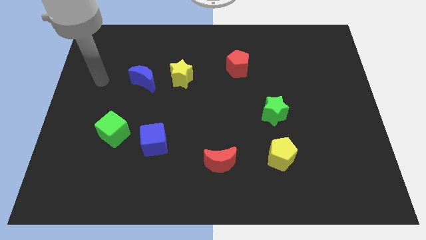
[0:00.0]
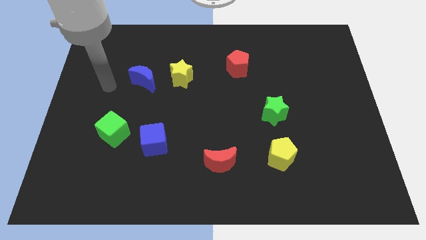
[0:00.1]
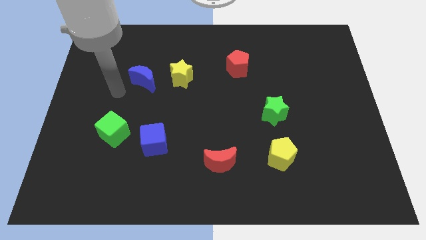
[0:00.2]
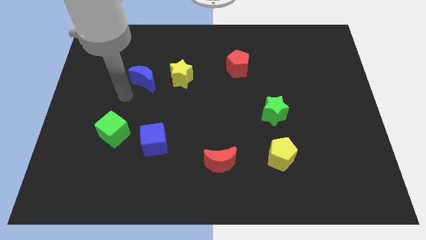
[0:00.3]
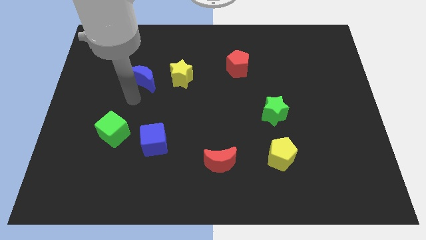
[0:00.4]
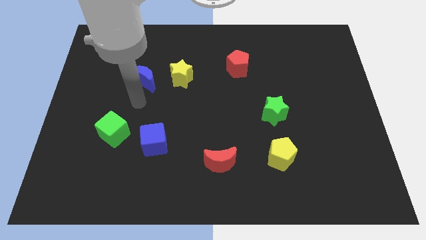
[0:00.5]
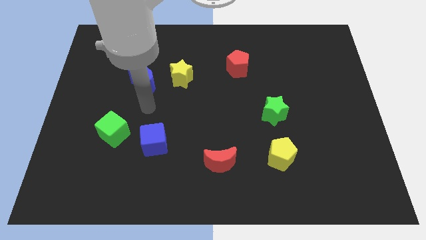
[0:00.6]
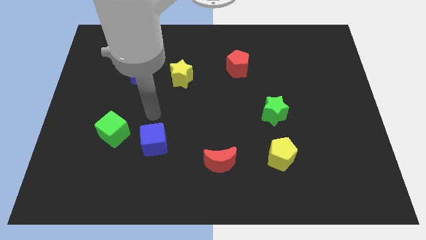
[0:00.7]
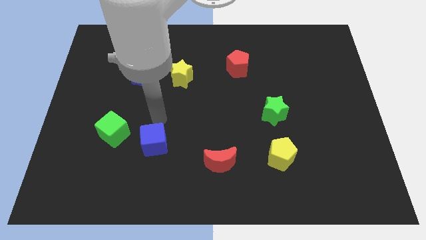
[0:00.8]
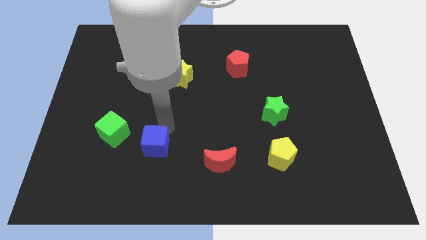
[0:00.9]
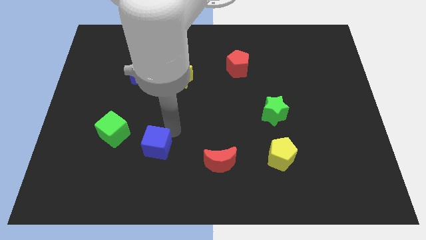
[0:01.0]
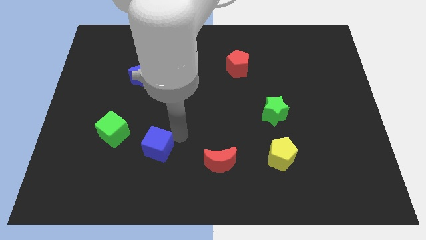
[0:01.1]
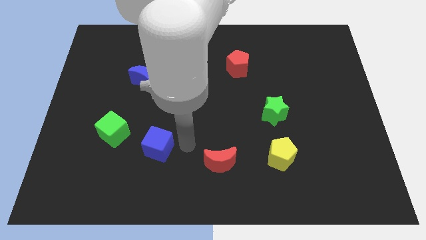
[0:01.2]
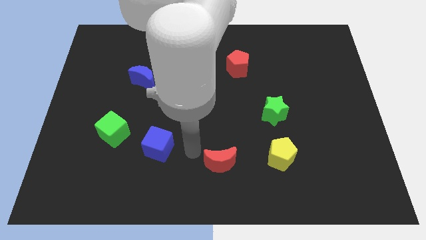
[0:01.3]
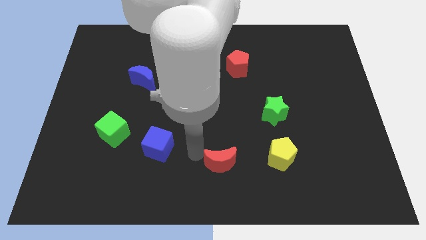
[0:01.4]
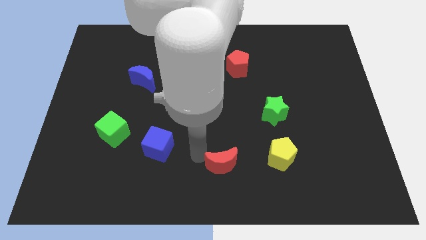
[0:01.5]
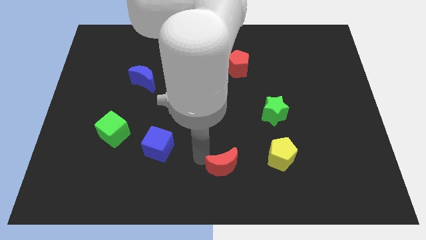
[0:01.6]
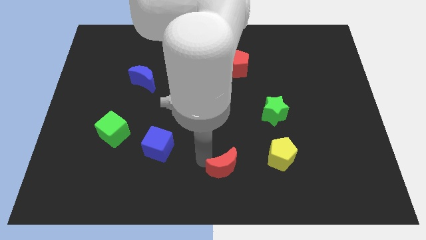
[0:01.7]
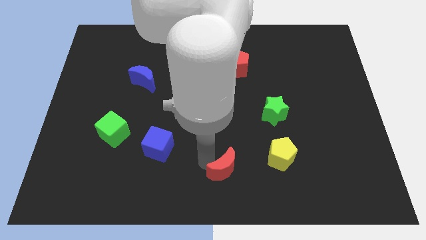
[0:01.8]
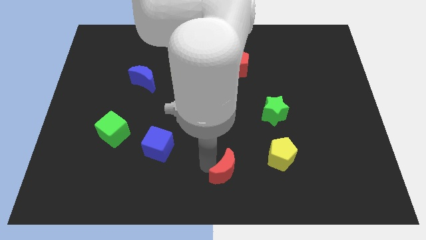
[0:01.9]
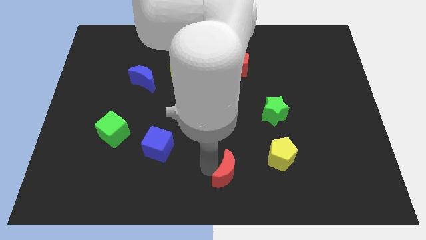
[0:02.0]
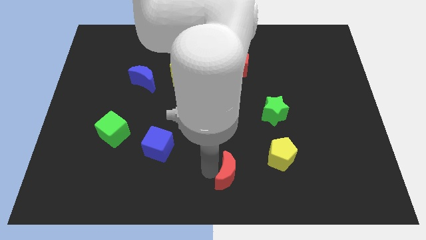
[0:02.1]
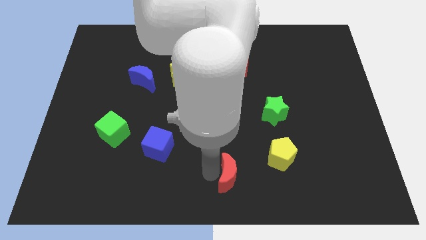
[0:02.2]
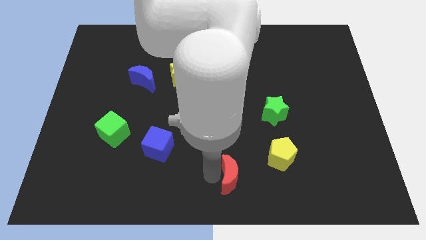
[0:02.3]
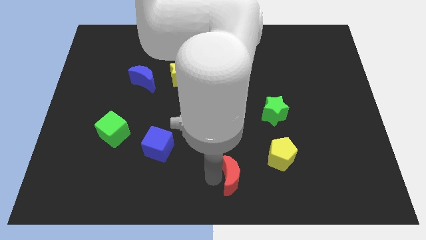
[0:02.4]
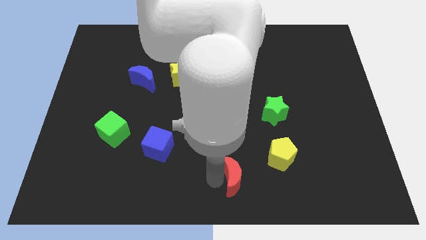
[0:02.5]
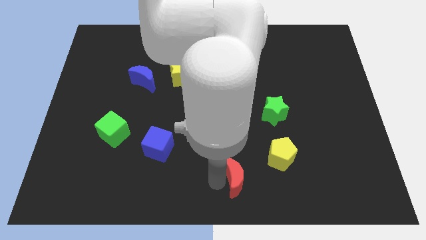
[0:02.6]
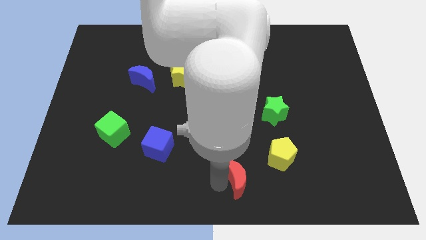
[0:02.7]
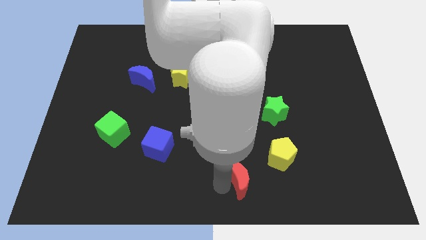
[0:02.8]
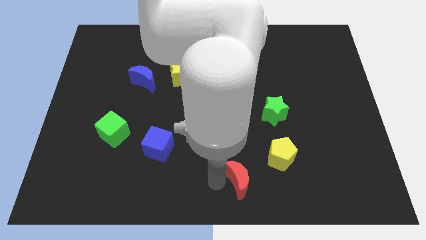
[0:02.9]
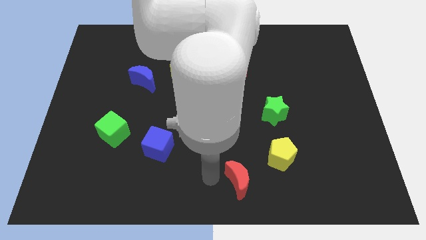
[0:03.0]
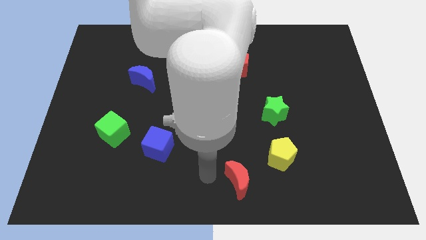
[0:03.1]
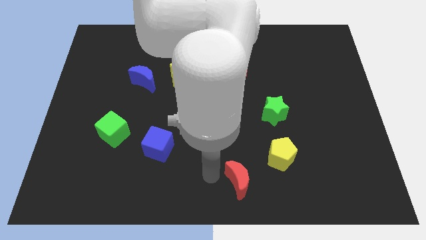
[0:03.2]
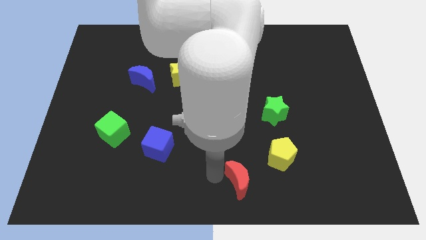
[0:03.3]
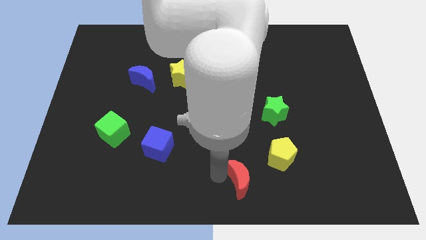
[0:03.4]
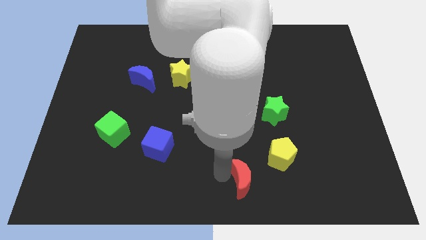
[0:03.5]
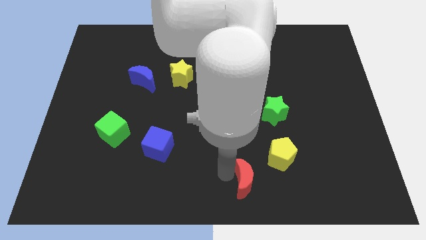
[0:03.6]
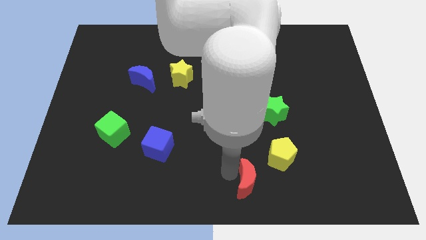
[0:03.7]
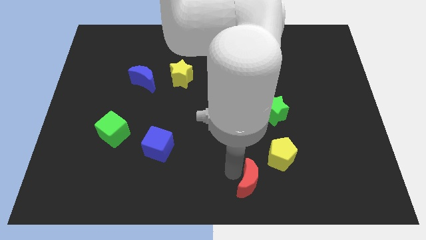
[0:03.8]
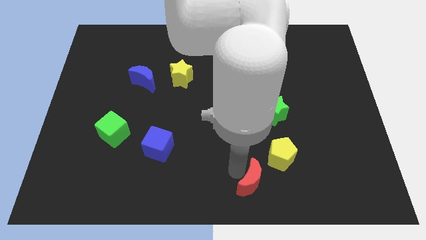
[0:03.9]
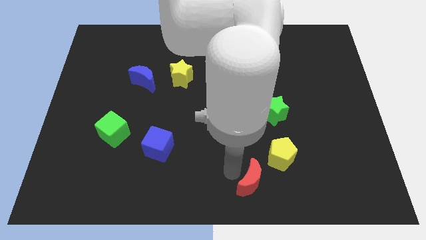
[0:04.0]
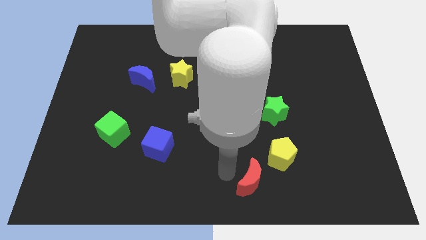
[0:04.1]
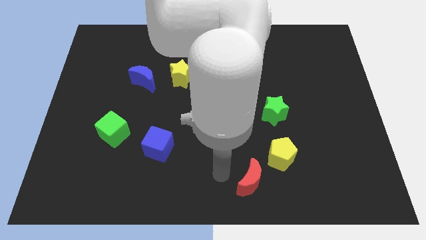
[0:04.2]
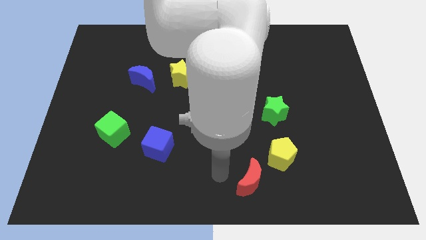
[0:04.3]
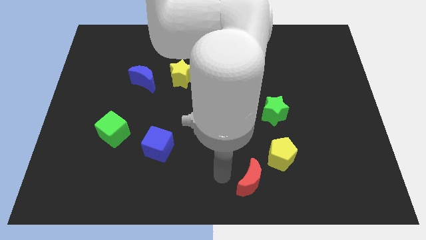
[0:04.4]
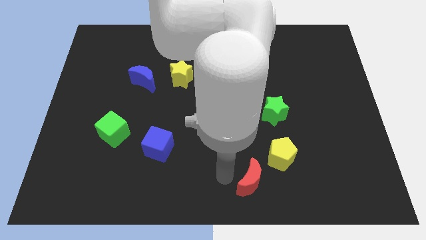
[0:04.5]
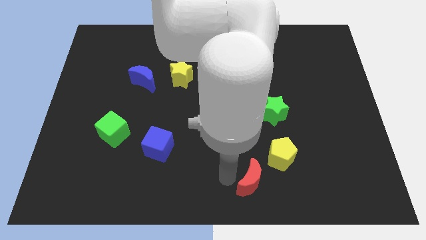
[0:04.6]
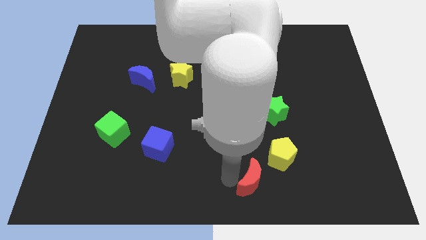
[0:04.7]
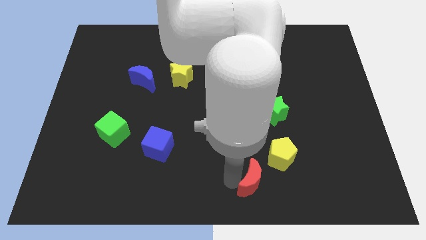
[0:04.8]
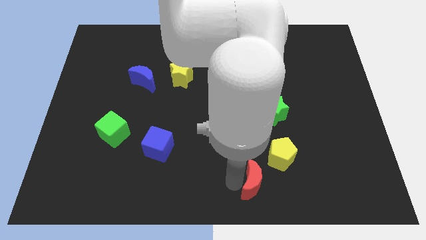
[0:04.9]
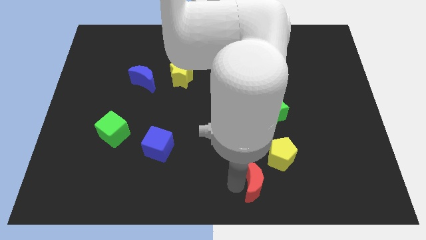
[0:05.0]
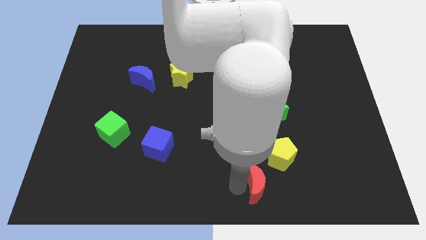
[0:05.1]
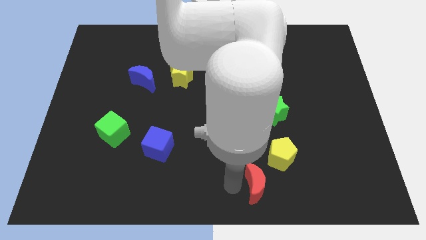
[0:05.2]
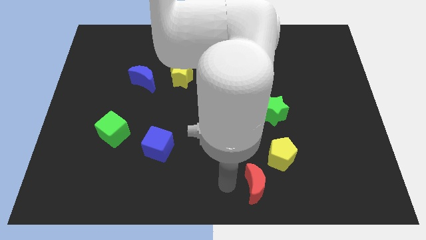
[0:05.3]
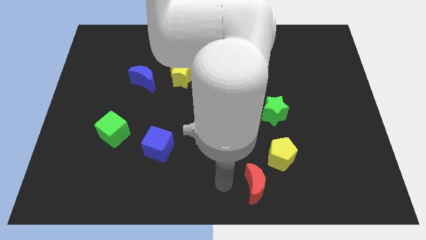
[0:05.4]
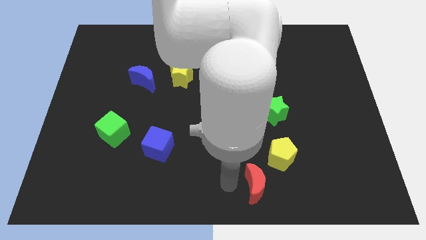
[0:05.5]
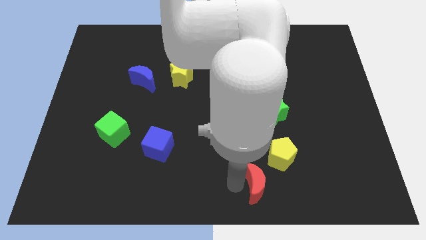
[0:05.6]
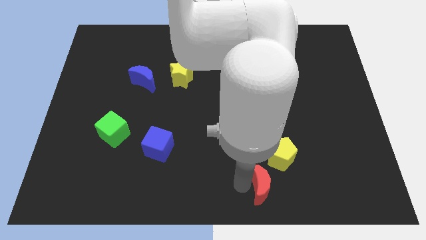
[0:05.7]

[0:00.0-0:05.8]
slightly move the red moon right

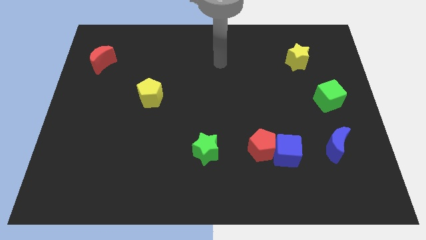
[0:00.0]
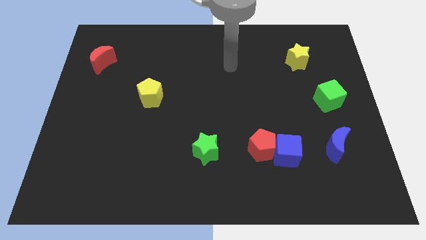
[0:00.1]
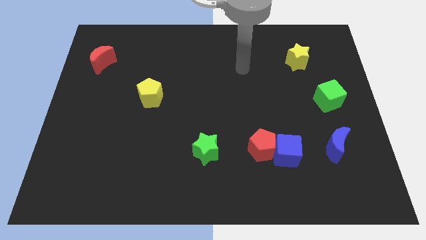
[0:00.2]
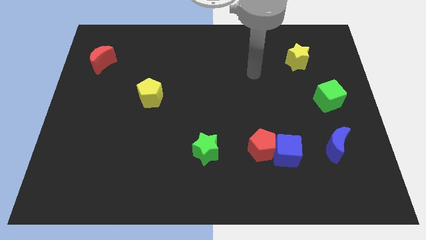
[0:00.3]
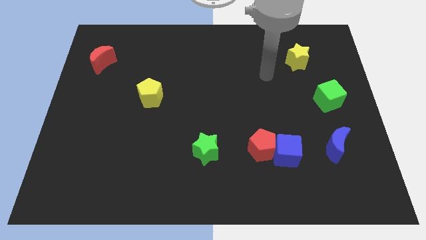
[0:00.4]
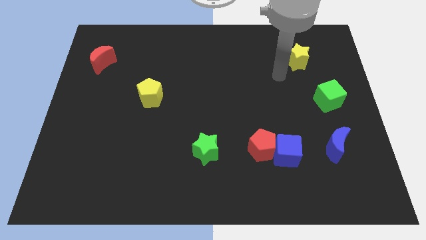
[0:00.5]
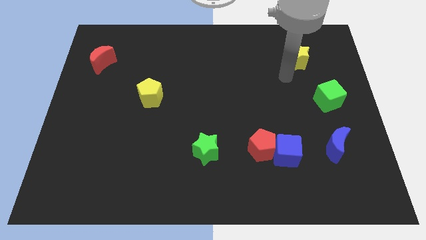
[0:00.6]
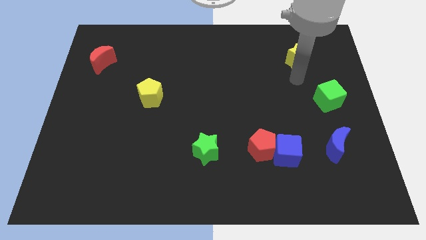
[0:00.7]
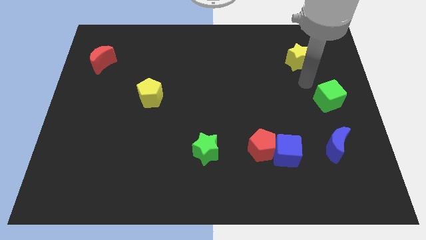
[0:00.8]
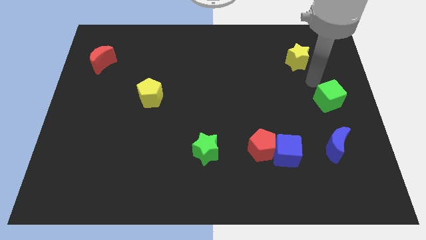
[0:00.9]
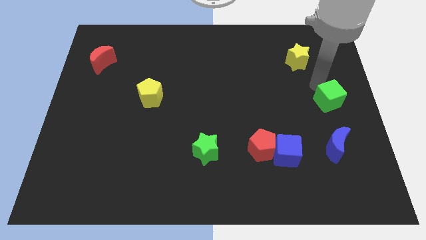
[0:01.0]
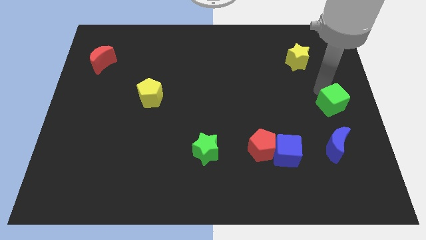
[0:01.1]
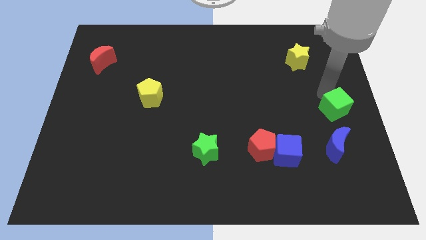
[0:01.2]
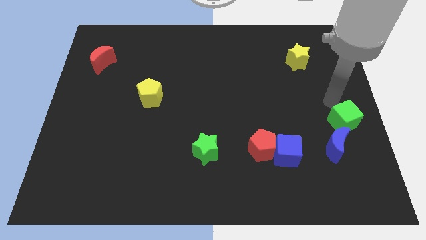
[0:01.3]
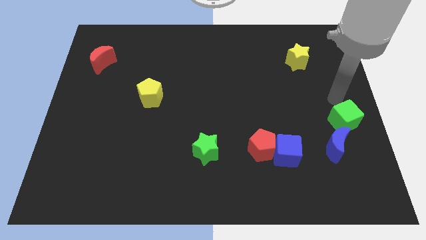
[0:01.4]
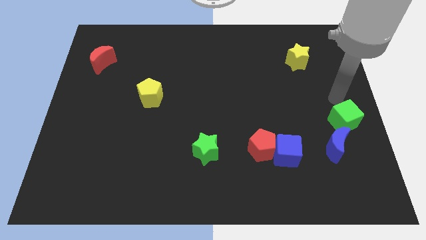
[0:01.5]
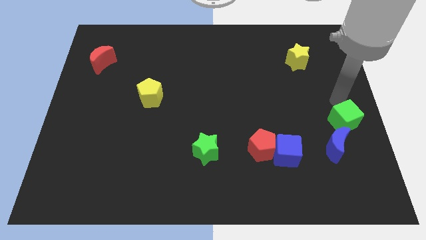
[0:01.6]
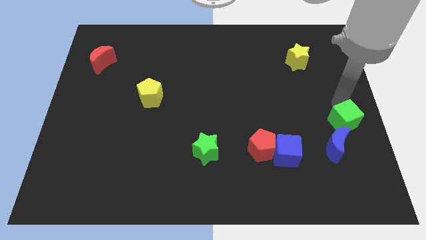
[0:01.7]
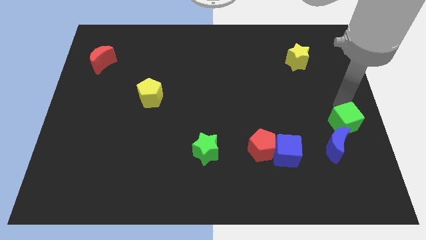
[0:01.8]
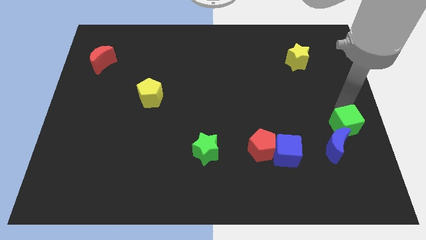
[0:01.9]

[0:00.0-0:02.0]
slightly slide the green cube downwards

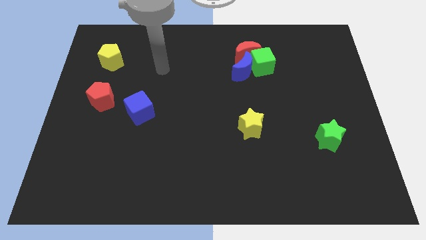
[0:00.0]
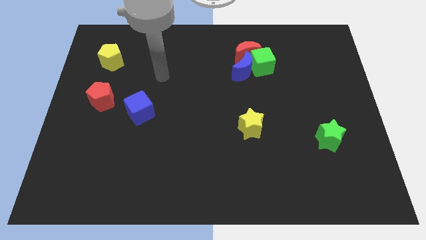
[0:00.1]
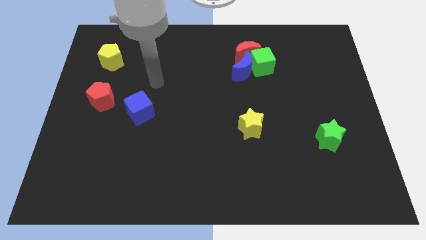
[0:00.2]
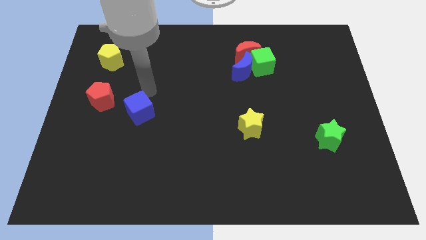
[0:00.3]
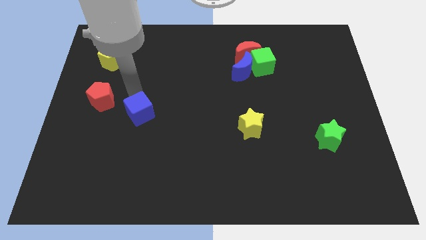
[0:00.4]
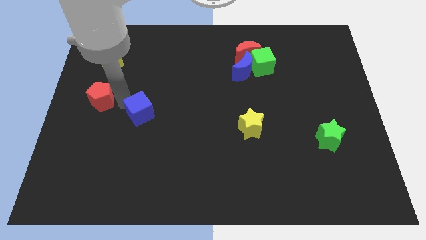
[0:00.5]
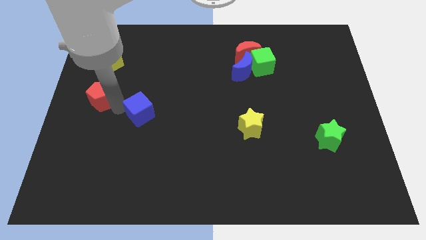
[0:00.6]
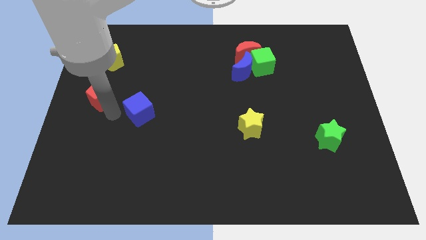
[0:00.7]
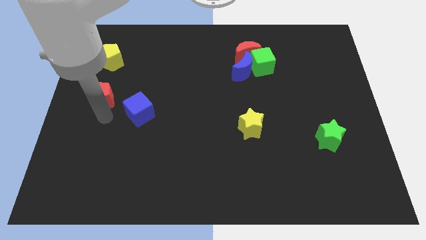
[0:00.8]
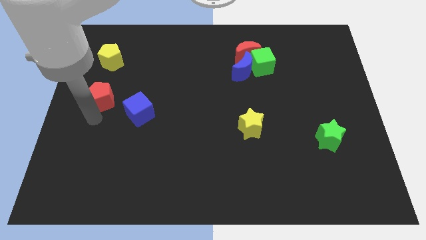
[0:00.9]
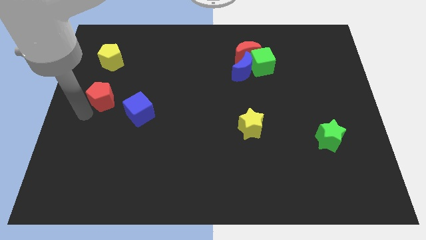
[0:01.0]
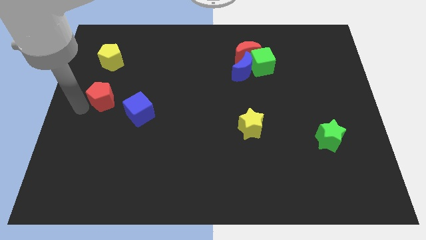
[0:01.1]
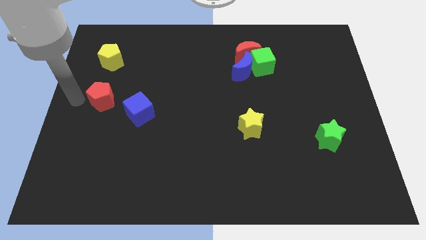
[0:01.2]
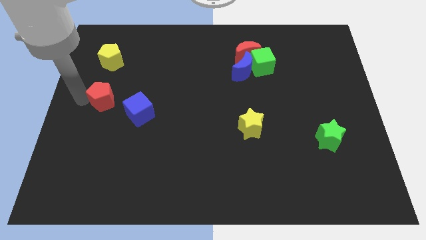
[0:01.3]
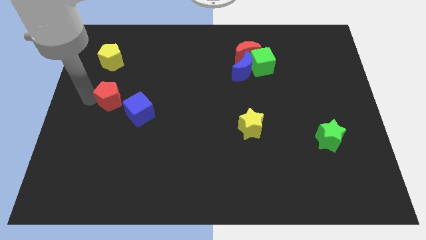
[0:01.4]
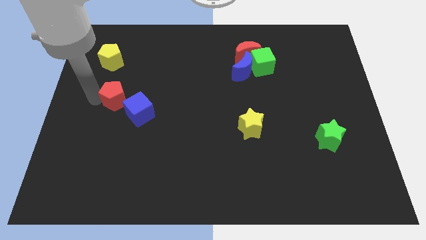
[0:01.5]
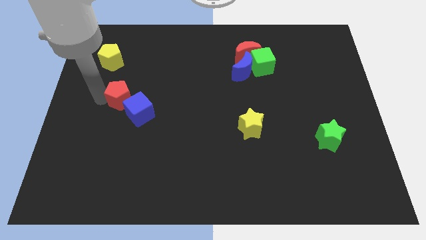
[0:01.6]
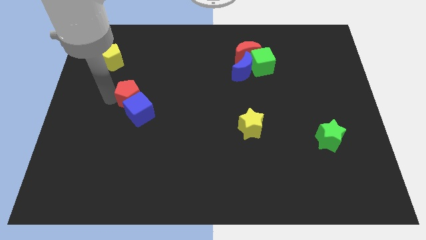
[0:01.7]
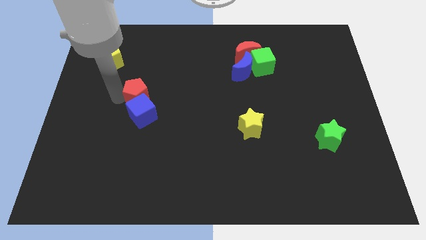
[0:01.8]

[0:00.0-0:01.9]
push the red pentagon a little bit right
